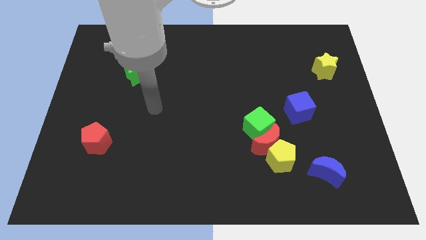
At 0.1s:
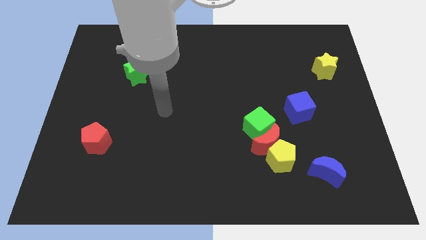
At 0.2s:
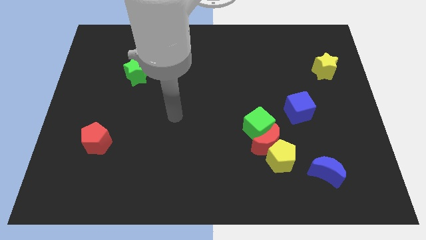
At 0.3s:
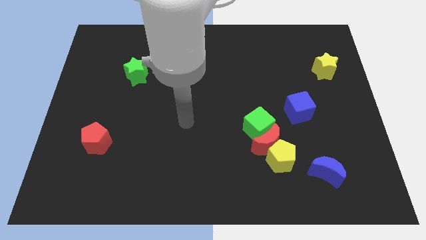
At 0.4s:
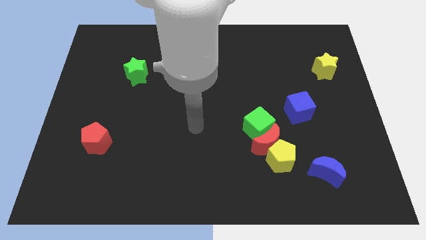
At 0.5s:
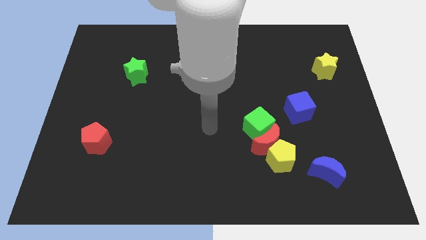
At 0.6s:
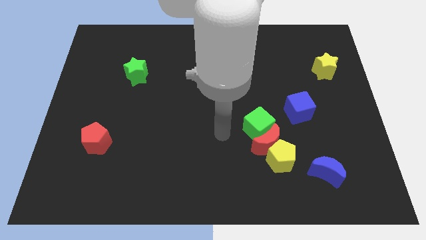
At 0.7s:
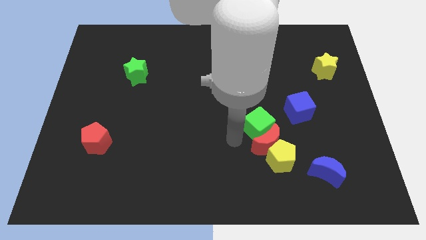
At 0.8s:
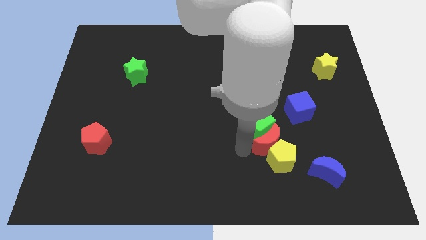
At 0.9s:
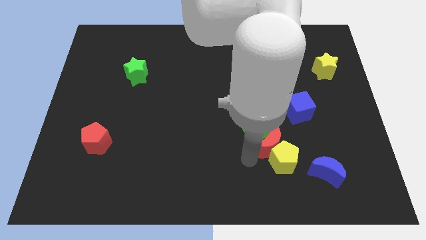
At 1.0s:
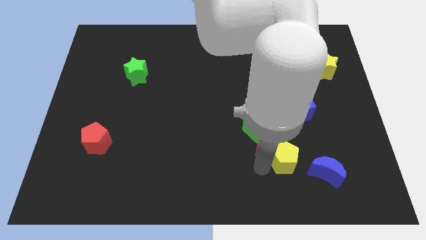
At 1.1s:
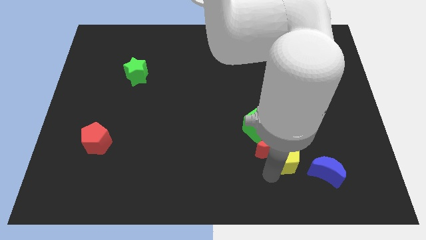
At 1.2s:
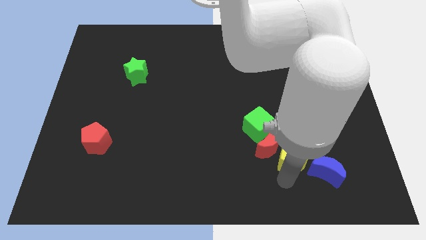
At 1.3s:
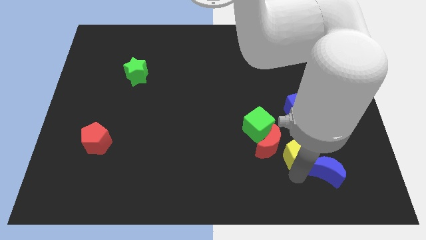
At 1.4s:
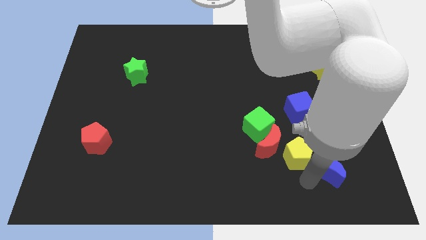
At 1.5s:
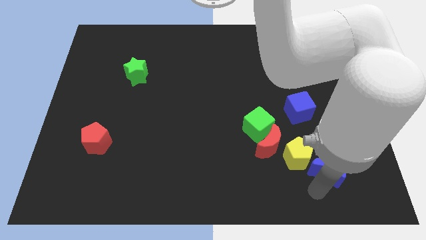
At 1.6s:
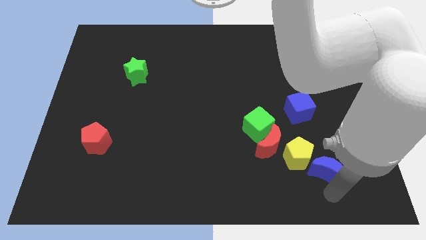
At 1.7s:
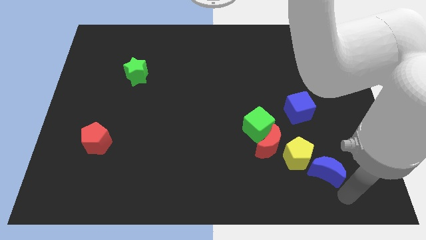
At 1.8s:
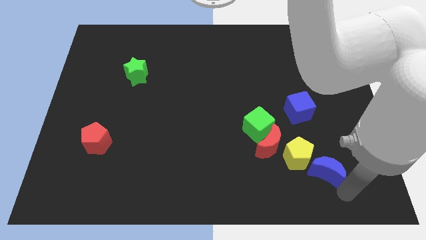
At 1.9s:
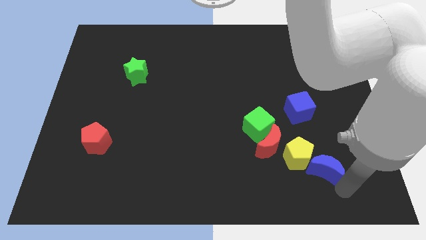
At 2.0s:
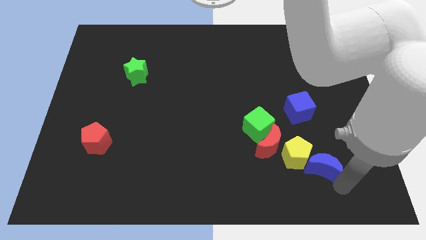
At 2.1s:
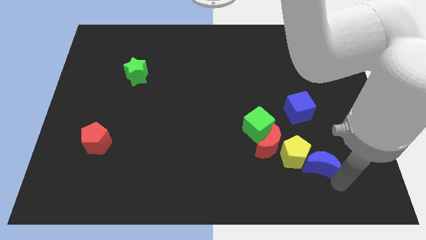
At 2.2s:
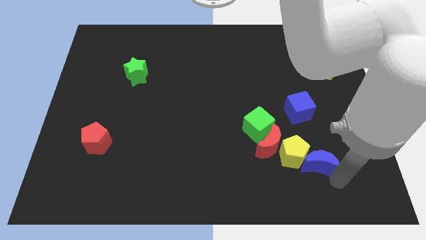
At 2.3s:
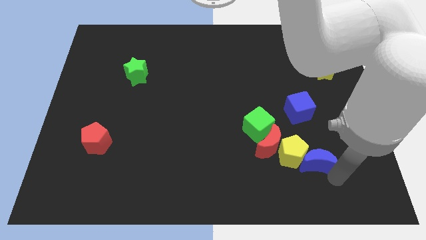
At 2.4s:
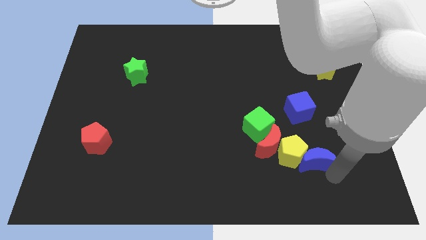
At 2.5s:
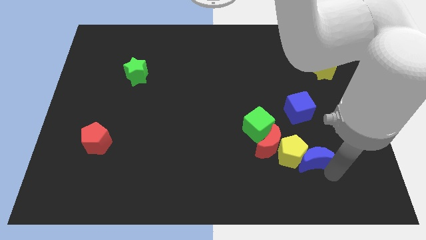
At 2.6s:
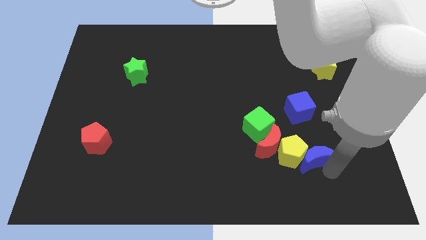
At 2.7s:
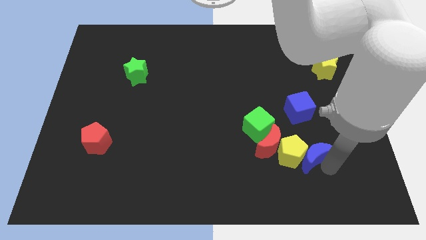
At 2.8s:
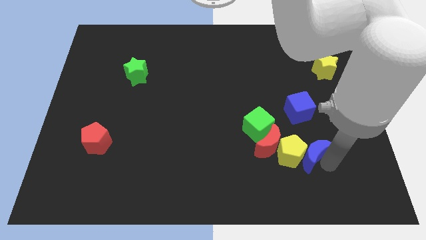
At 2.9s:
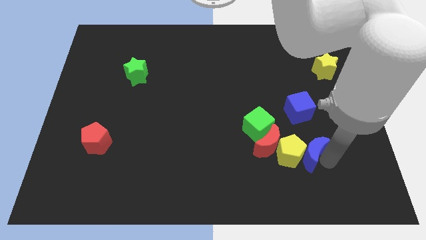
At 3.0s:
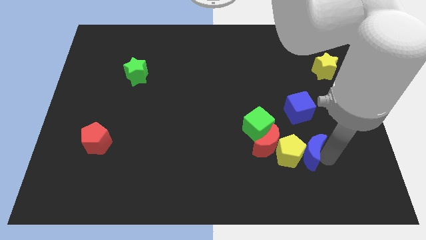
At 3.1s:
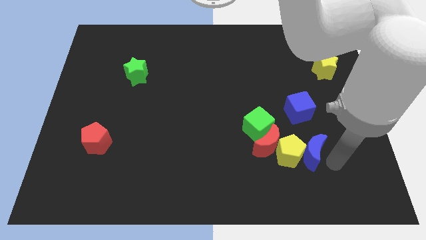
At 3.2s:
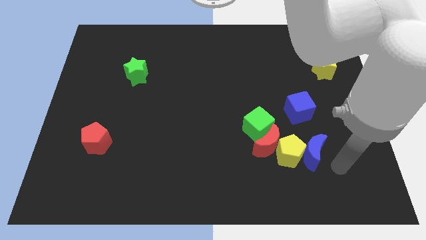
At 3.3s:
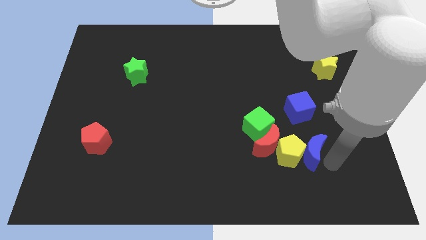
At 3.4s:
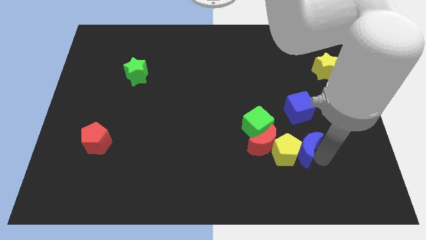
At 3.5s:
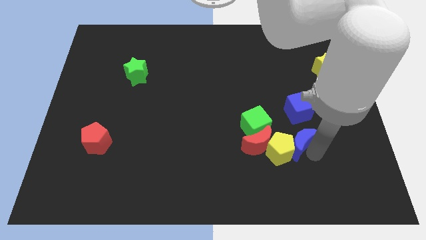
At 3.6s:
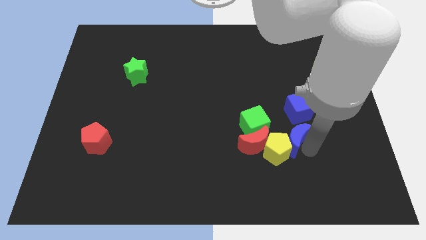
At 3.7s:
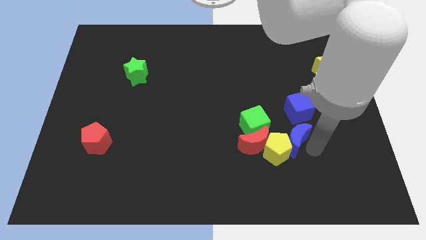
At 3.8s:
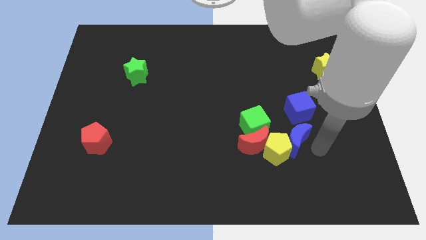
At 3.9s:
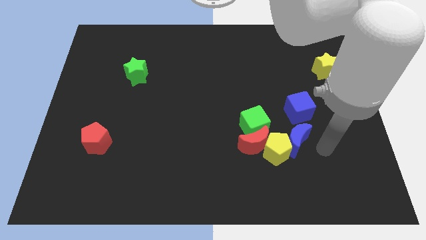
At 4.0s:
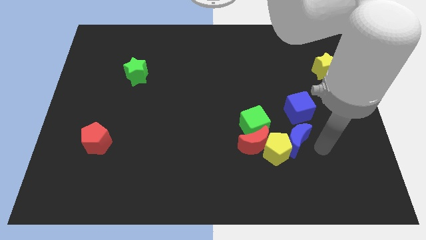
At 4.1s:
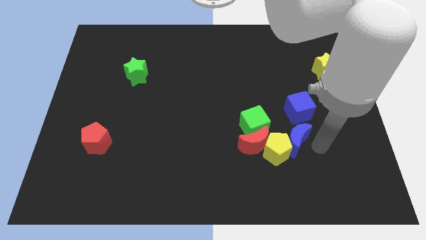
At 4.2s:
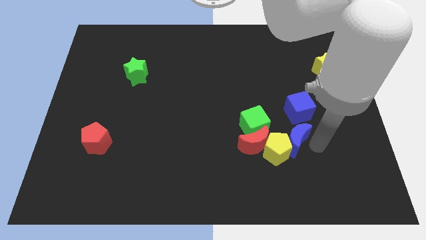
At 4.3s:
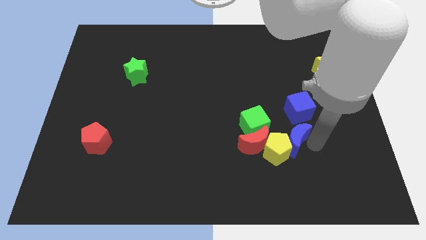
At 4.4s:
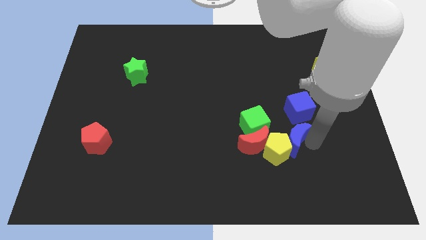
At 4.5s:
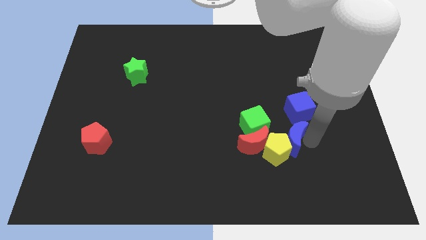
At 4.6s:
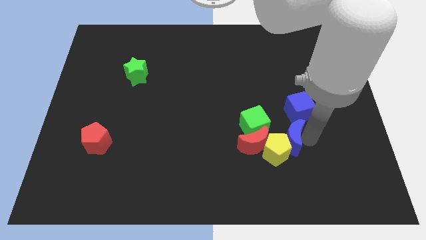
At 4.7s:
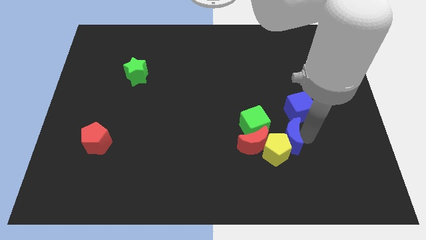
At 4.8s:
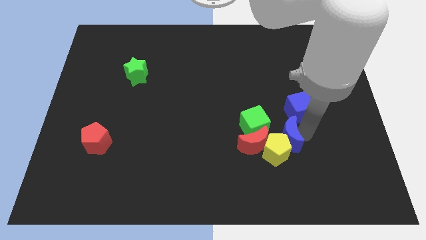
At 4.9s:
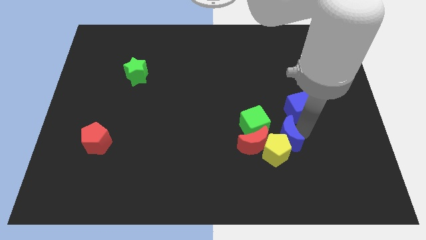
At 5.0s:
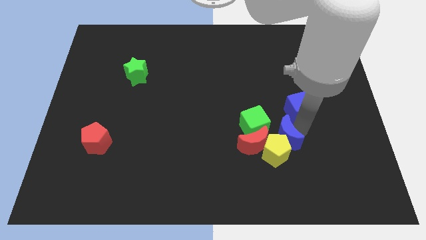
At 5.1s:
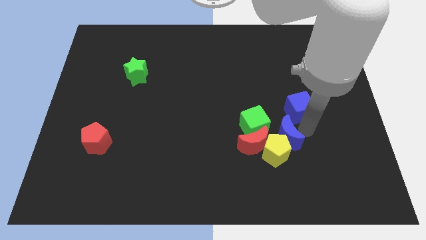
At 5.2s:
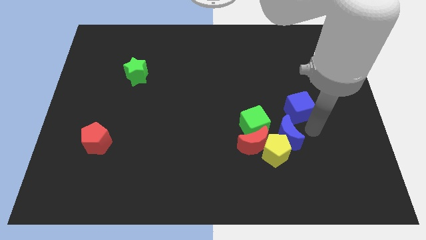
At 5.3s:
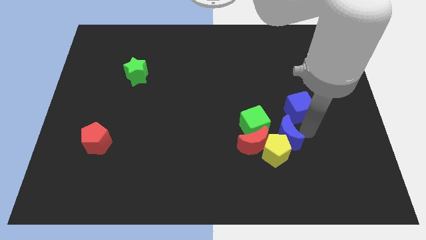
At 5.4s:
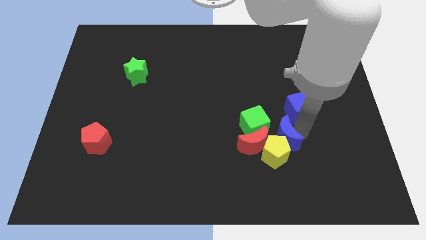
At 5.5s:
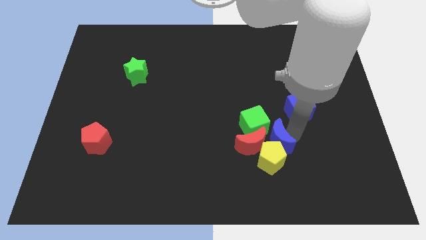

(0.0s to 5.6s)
move the blue moon next to the red moon

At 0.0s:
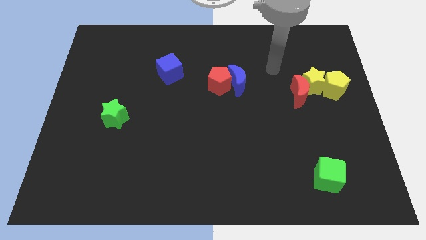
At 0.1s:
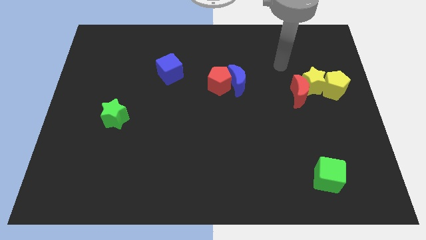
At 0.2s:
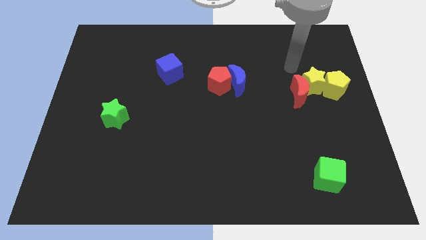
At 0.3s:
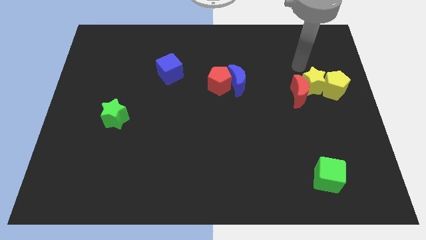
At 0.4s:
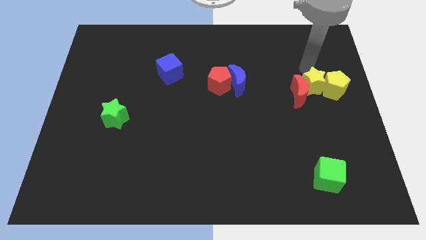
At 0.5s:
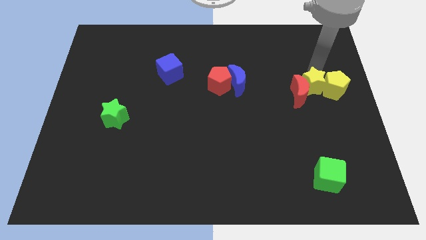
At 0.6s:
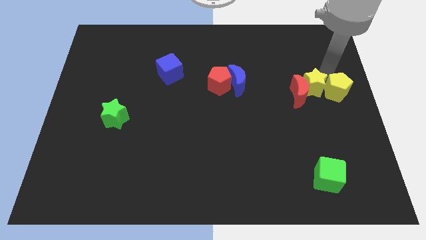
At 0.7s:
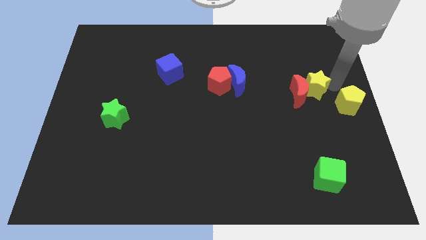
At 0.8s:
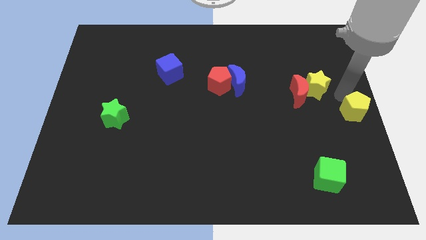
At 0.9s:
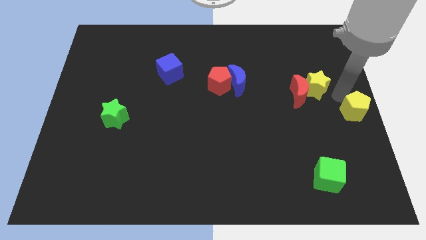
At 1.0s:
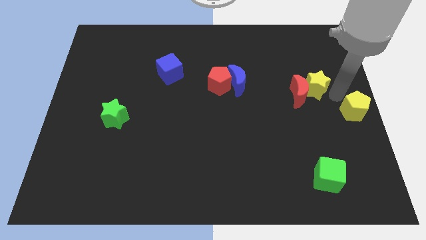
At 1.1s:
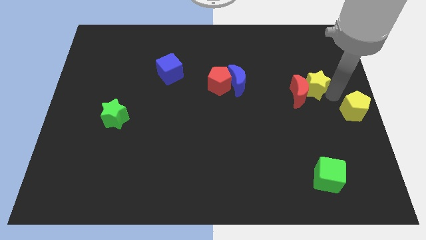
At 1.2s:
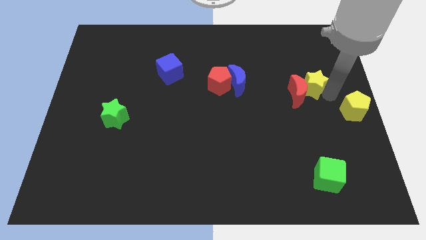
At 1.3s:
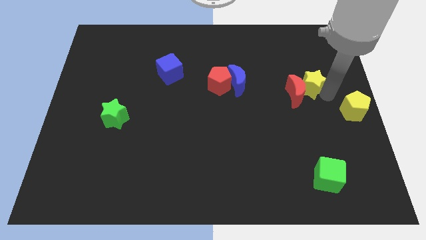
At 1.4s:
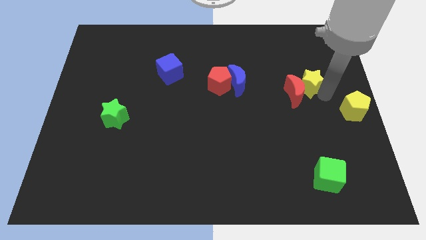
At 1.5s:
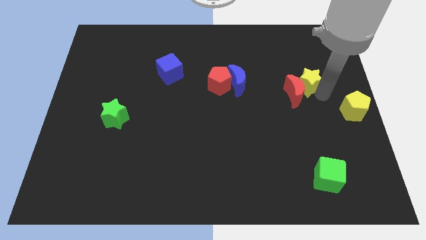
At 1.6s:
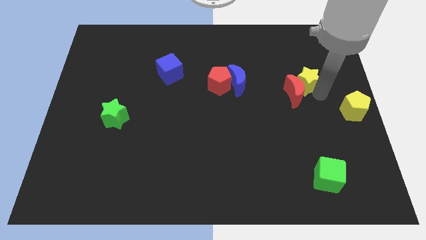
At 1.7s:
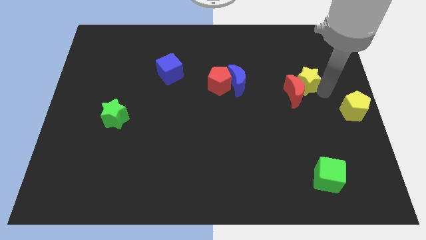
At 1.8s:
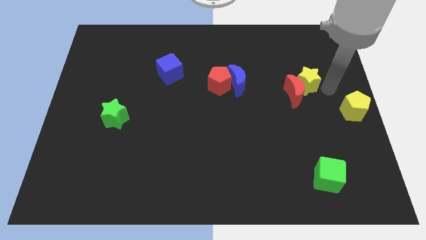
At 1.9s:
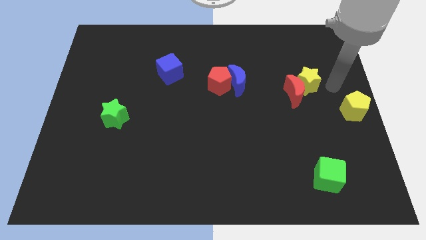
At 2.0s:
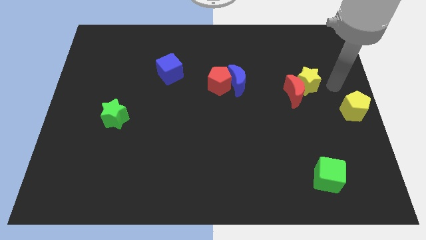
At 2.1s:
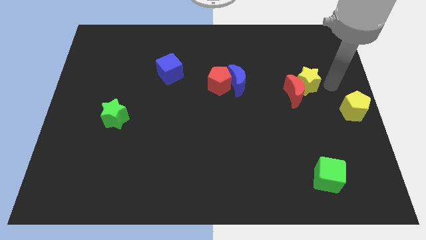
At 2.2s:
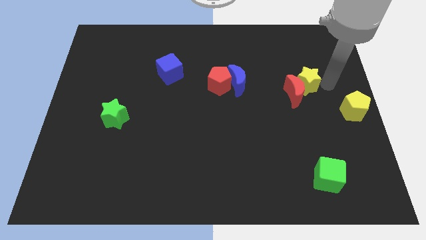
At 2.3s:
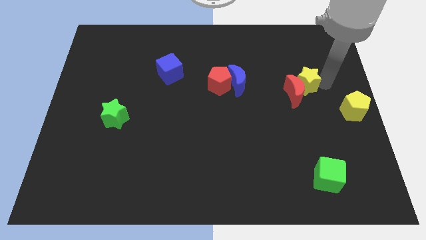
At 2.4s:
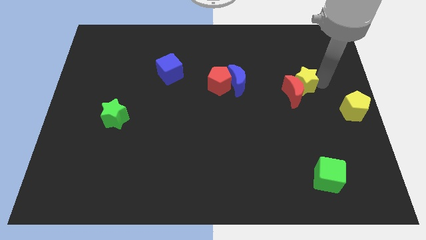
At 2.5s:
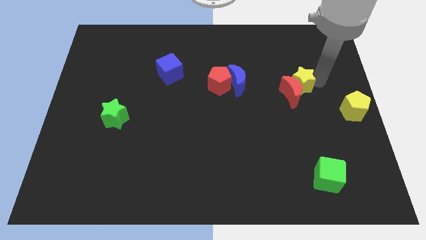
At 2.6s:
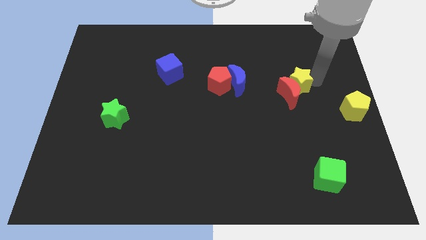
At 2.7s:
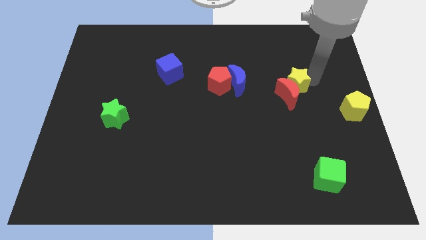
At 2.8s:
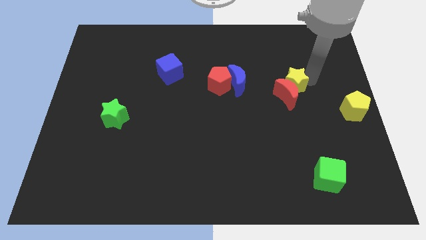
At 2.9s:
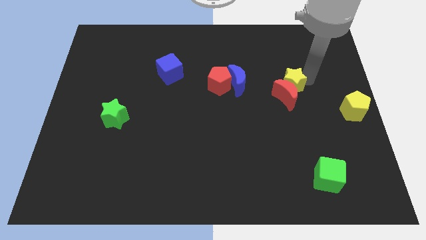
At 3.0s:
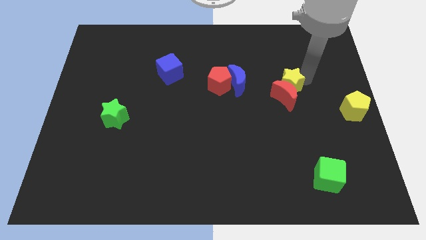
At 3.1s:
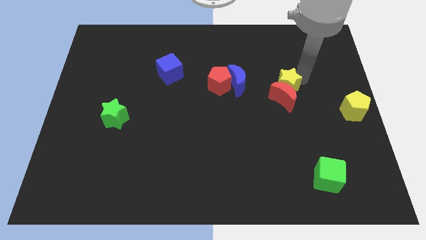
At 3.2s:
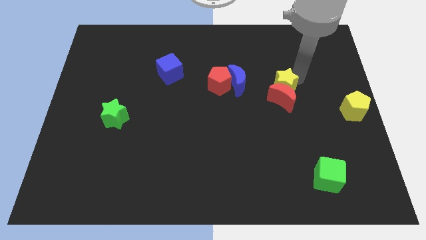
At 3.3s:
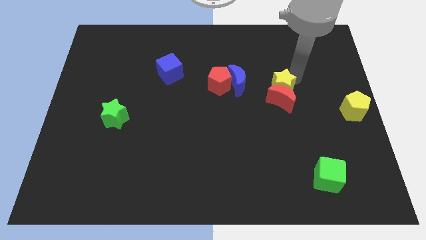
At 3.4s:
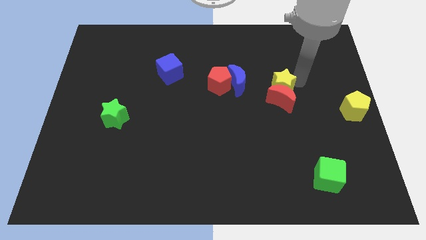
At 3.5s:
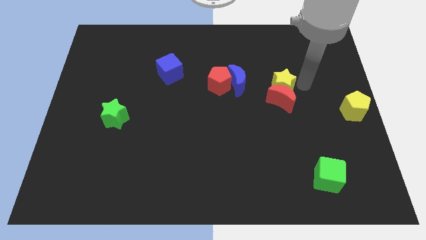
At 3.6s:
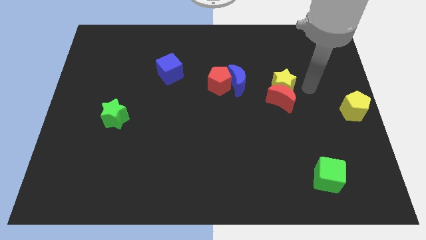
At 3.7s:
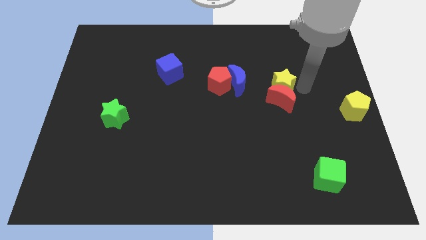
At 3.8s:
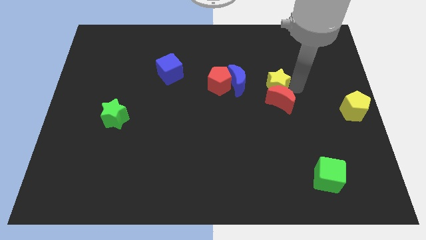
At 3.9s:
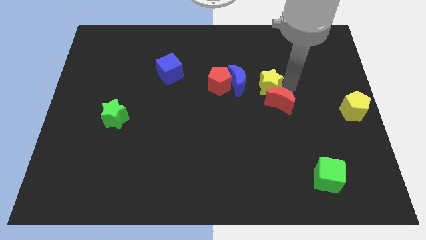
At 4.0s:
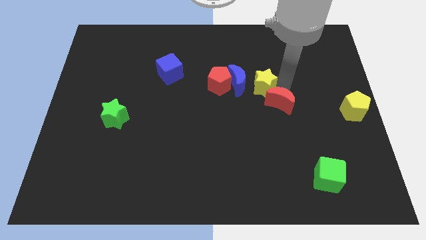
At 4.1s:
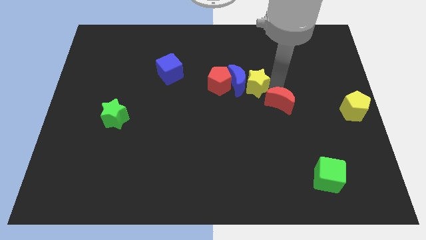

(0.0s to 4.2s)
slide the yellow star next to the blue moon
